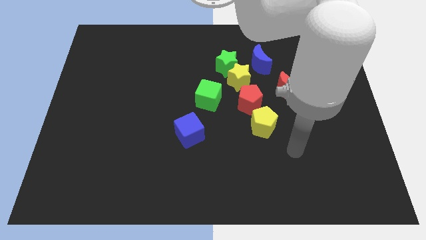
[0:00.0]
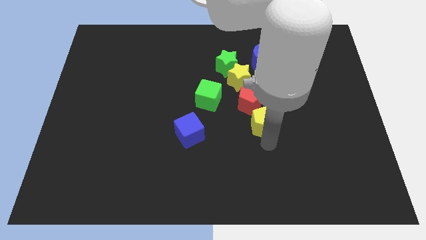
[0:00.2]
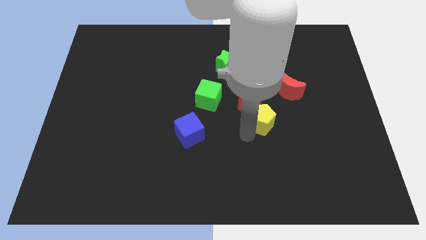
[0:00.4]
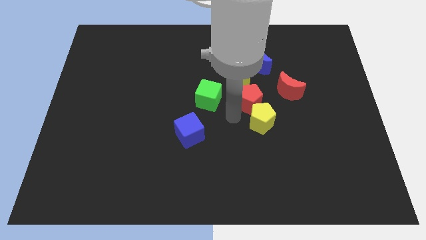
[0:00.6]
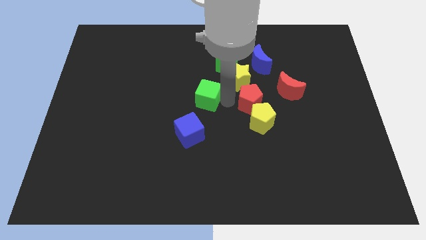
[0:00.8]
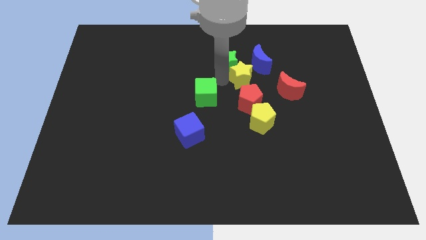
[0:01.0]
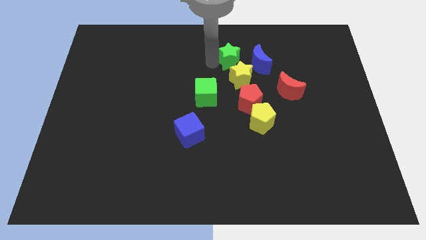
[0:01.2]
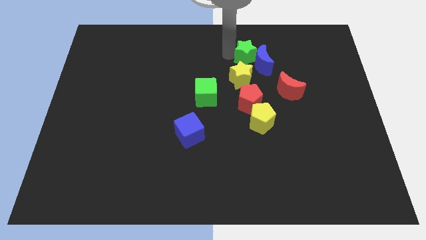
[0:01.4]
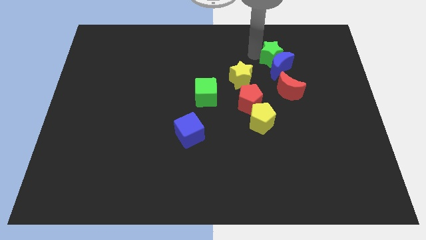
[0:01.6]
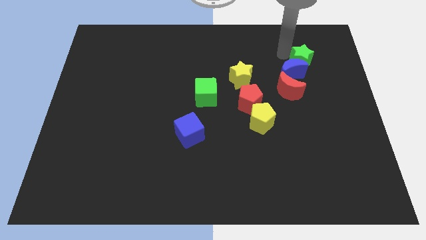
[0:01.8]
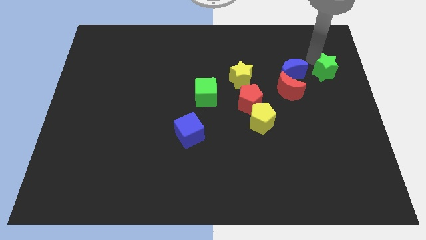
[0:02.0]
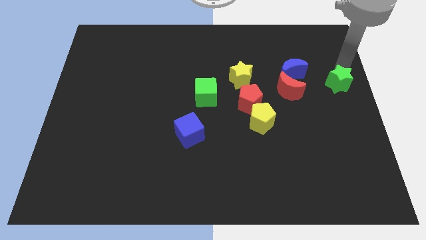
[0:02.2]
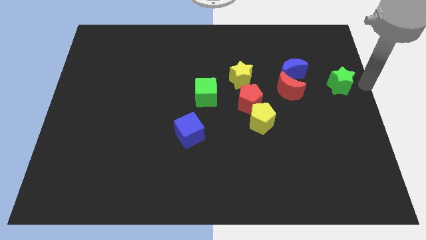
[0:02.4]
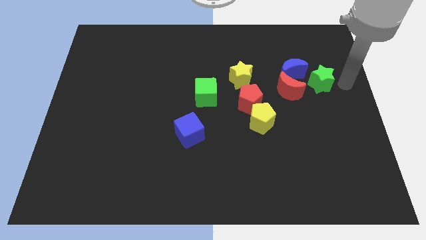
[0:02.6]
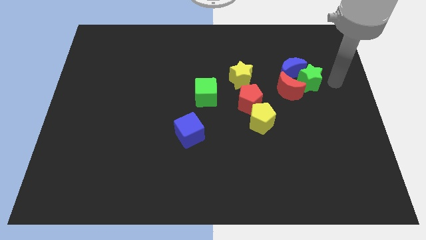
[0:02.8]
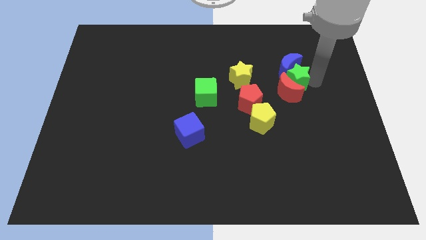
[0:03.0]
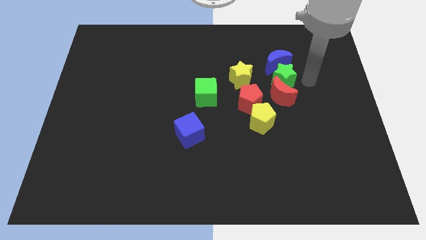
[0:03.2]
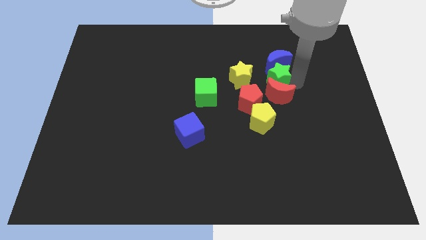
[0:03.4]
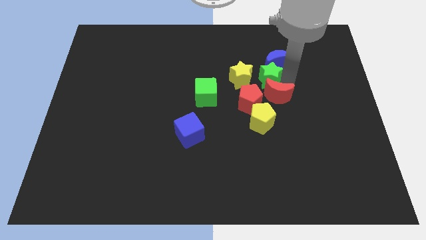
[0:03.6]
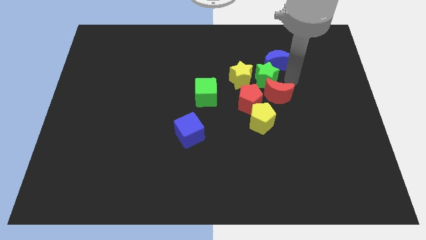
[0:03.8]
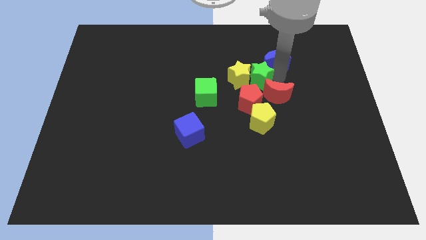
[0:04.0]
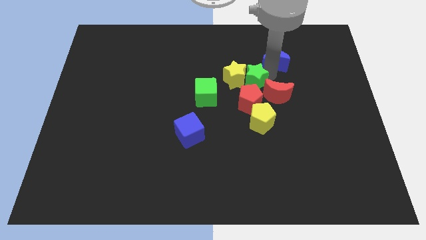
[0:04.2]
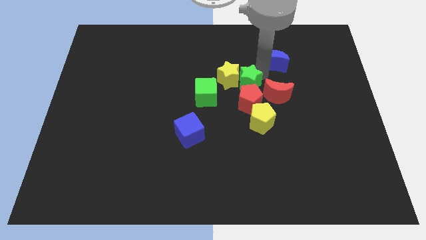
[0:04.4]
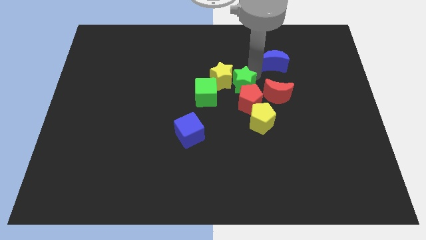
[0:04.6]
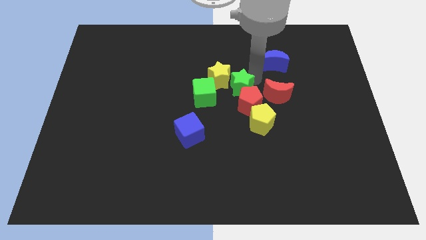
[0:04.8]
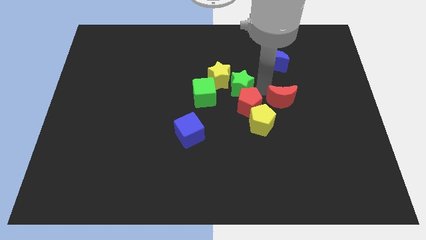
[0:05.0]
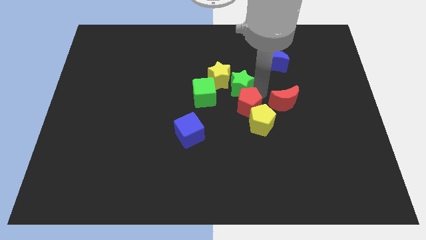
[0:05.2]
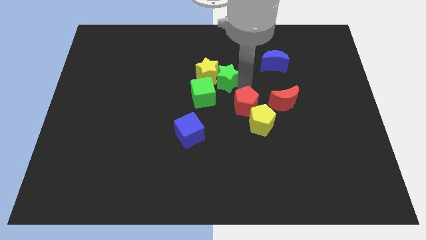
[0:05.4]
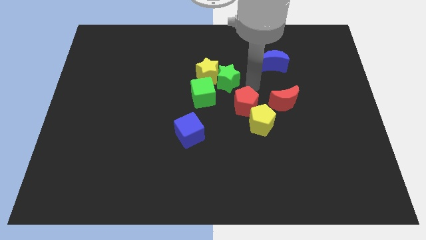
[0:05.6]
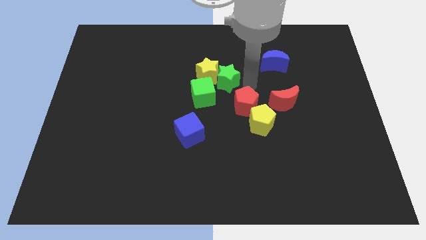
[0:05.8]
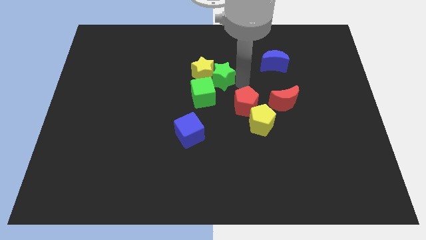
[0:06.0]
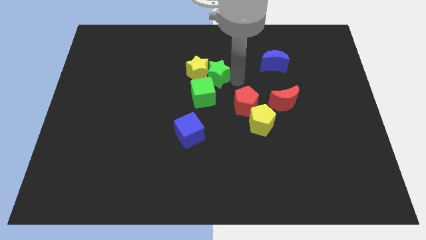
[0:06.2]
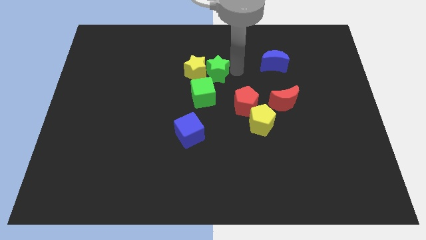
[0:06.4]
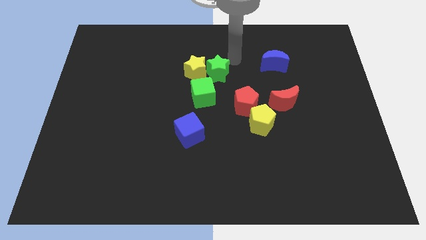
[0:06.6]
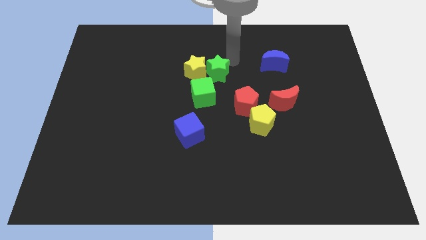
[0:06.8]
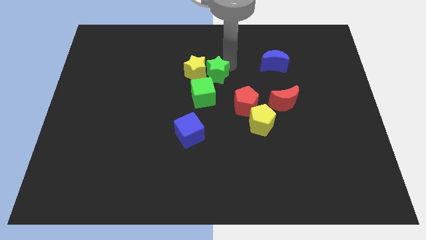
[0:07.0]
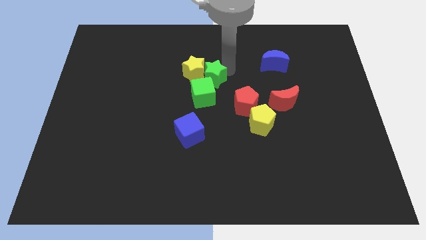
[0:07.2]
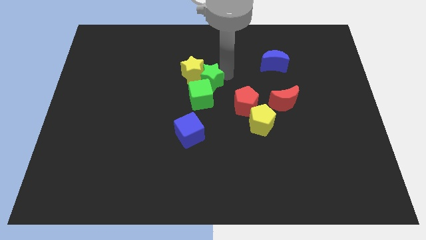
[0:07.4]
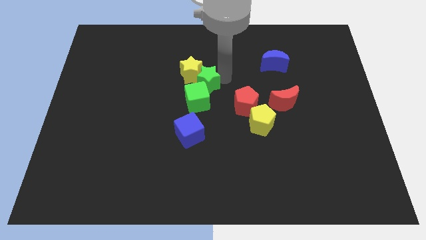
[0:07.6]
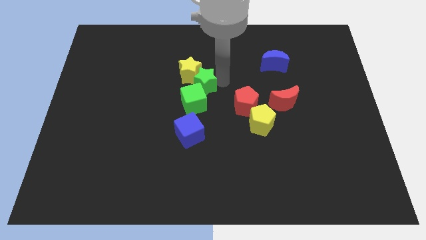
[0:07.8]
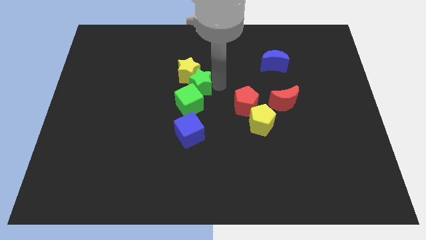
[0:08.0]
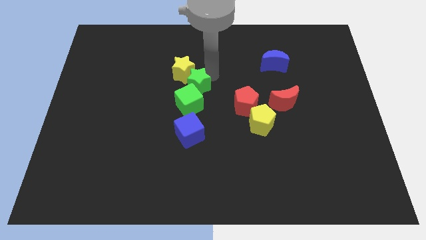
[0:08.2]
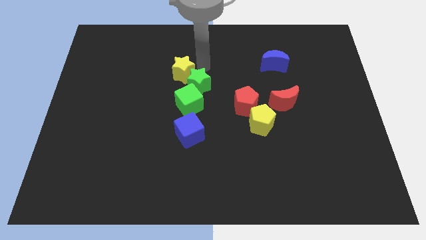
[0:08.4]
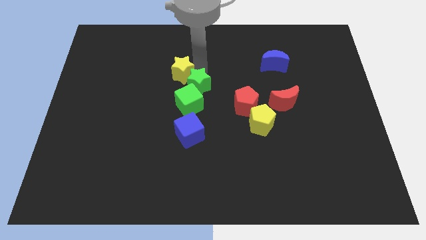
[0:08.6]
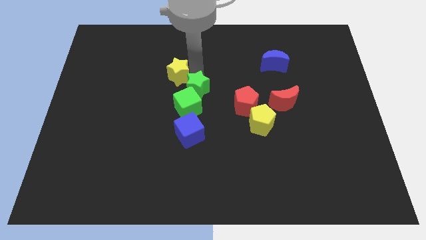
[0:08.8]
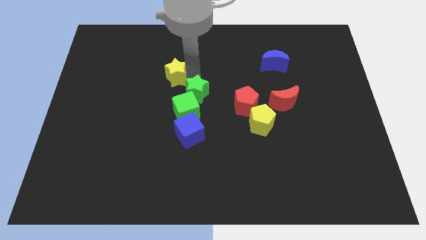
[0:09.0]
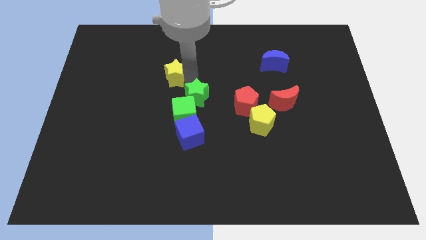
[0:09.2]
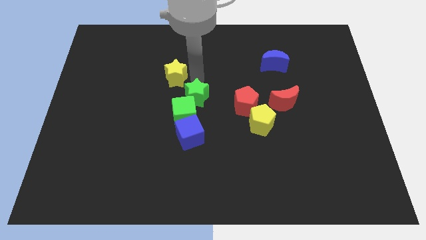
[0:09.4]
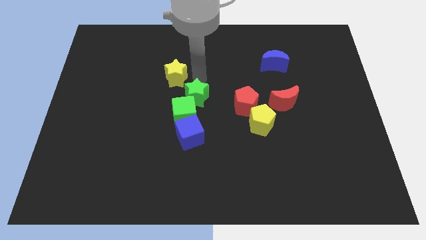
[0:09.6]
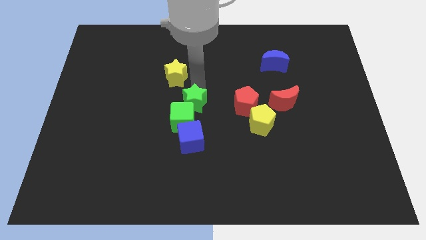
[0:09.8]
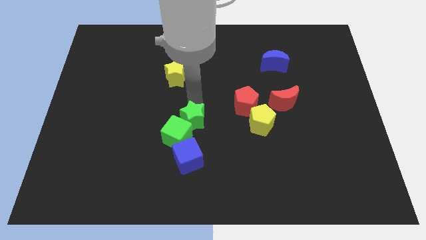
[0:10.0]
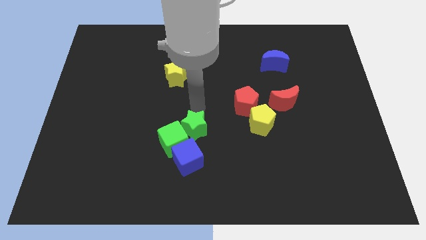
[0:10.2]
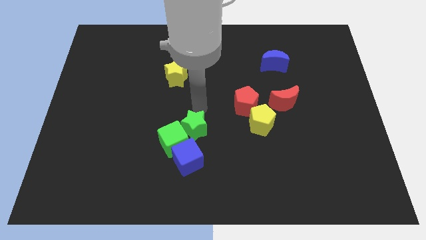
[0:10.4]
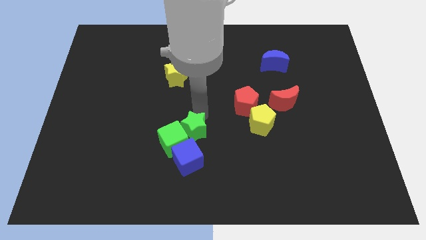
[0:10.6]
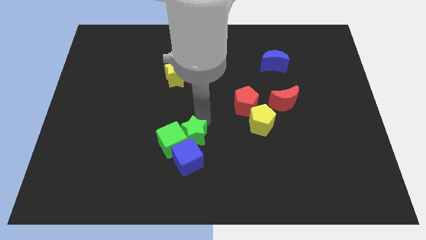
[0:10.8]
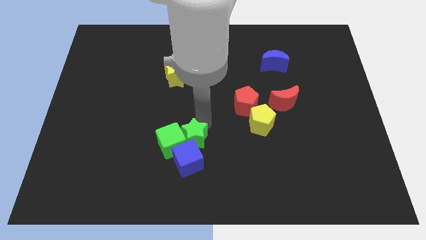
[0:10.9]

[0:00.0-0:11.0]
push the green star to the blue cube

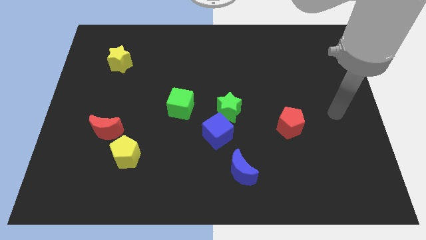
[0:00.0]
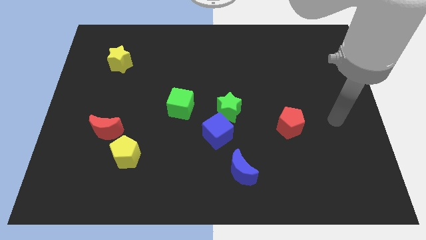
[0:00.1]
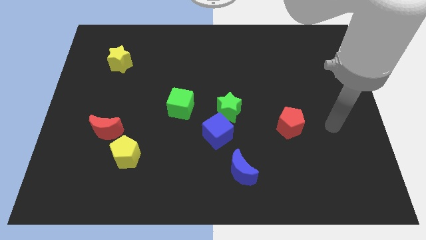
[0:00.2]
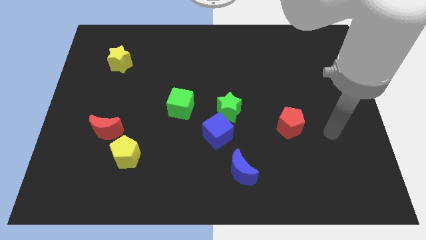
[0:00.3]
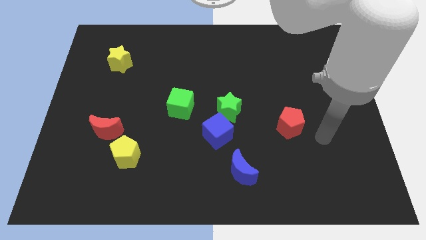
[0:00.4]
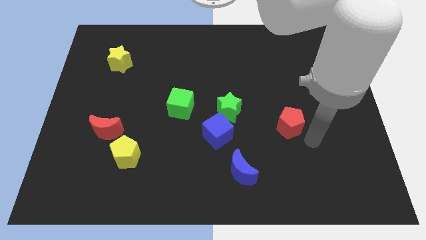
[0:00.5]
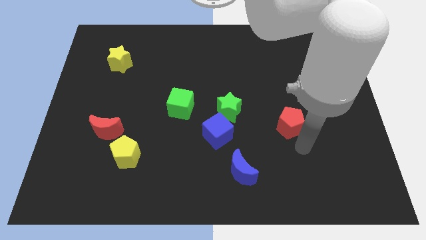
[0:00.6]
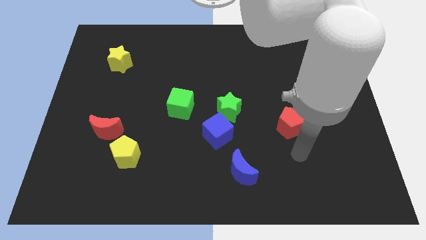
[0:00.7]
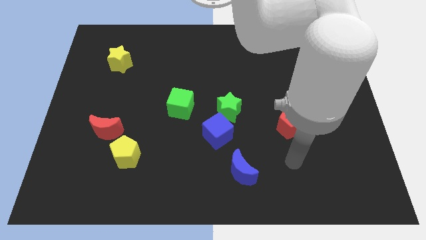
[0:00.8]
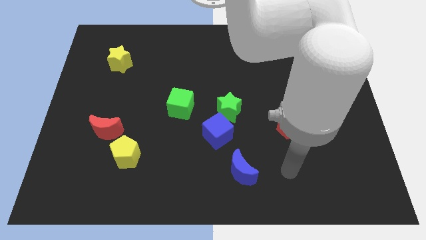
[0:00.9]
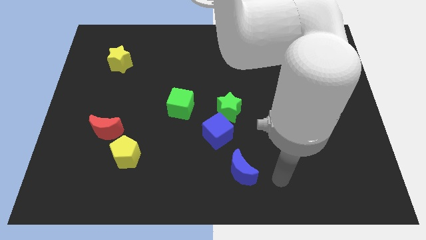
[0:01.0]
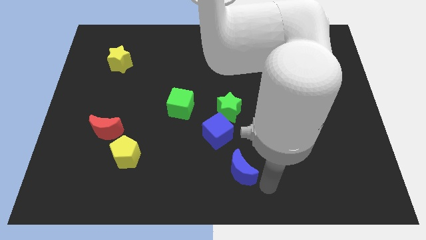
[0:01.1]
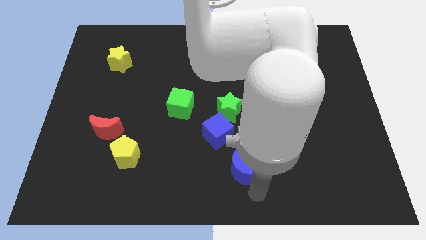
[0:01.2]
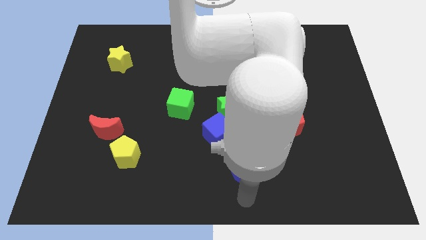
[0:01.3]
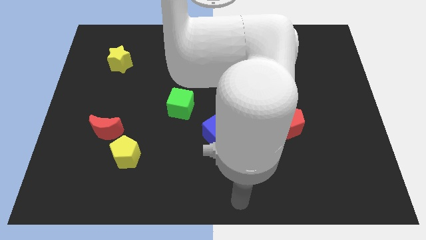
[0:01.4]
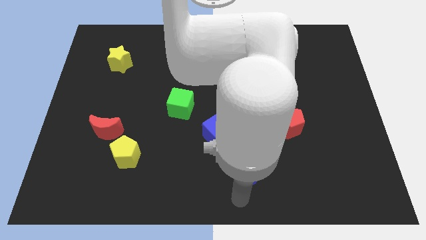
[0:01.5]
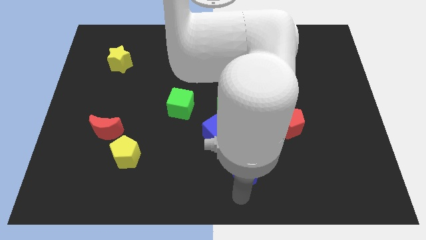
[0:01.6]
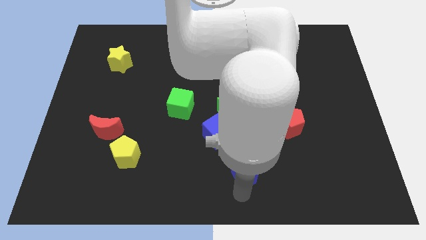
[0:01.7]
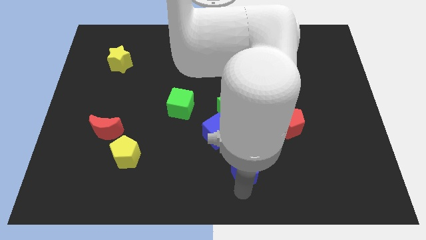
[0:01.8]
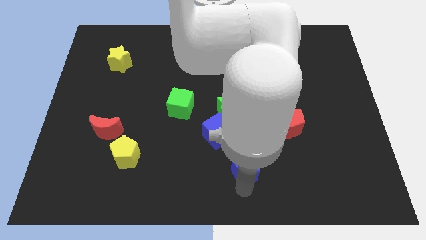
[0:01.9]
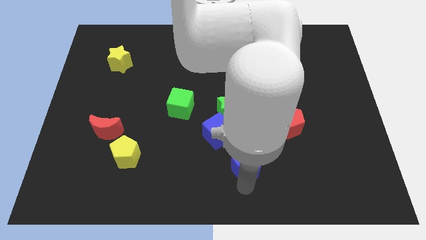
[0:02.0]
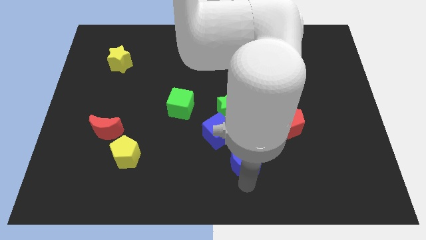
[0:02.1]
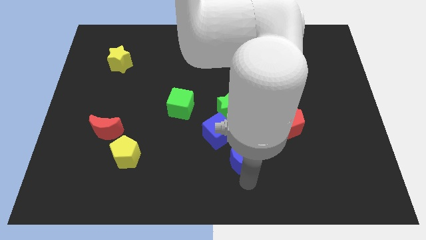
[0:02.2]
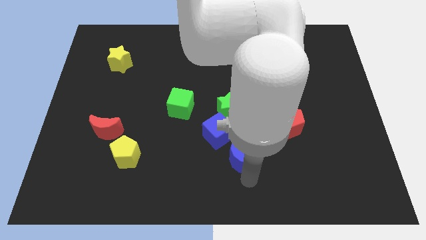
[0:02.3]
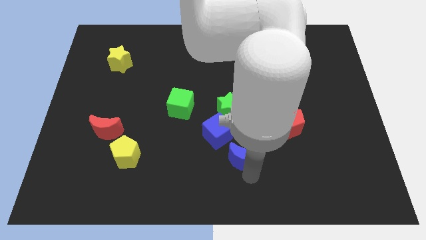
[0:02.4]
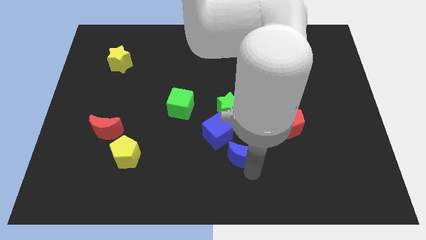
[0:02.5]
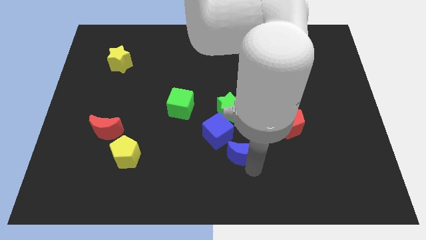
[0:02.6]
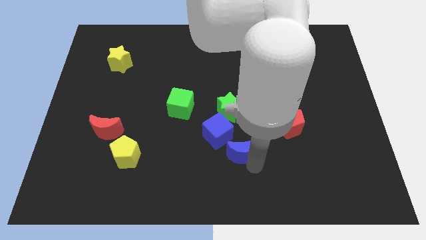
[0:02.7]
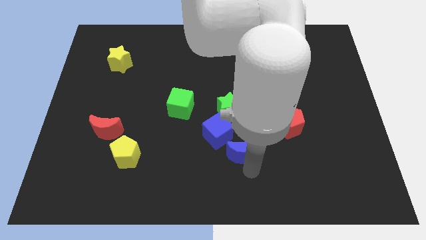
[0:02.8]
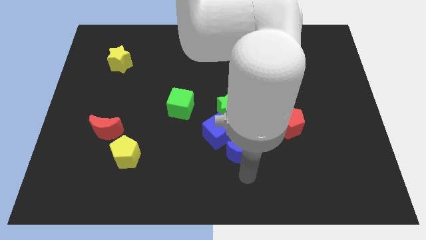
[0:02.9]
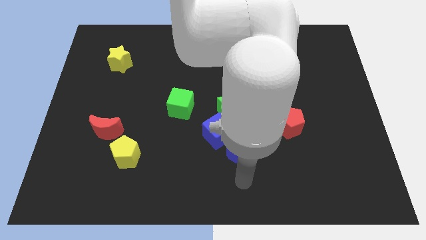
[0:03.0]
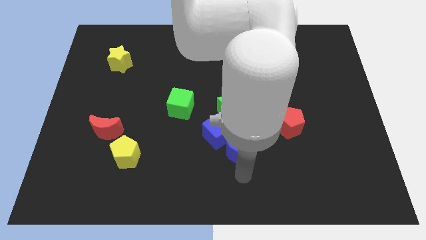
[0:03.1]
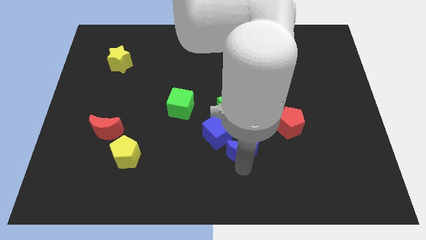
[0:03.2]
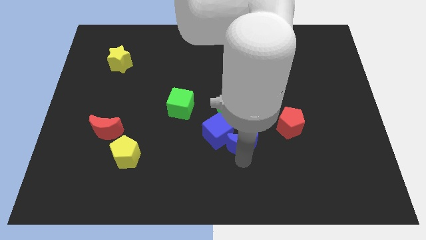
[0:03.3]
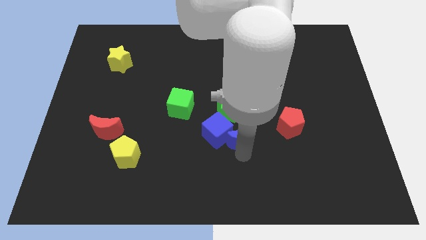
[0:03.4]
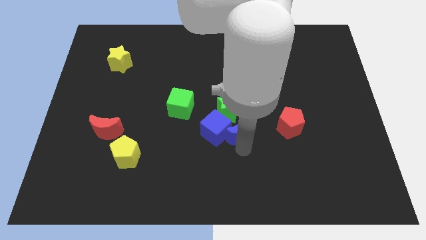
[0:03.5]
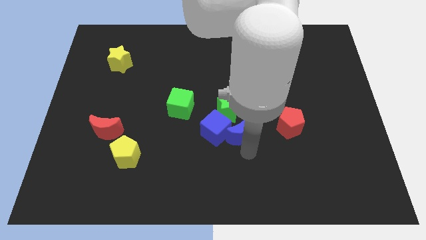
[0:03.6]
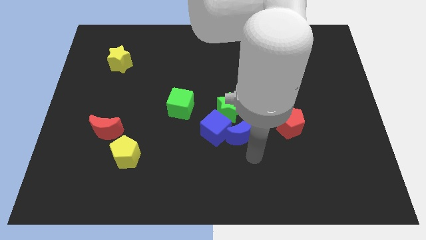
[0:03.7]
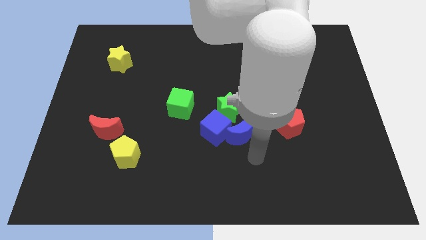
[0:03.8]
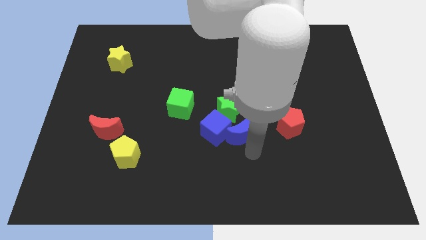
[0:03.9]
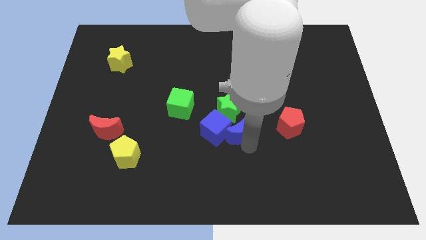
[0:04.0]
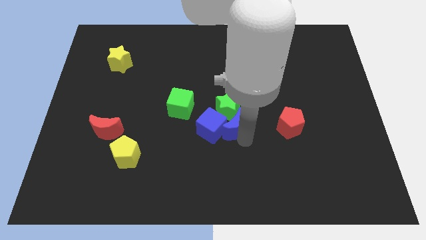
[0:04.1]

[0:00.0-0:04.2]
move the blue moon close to the green star
